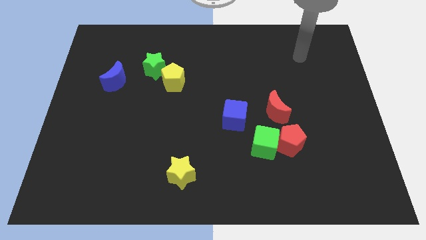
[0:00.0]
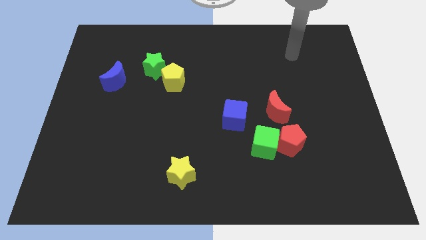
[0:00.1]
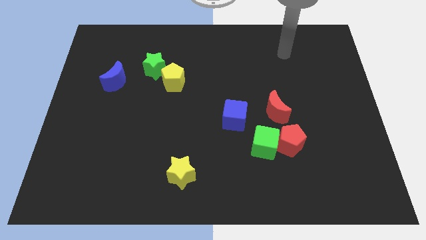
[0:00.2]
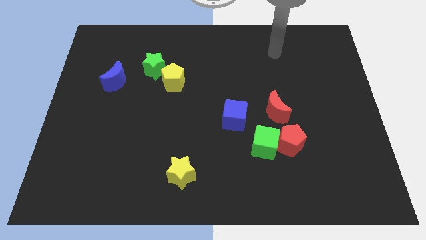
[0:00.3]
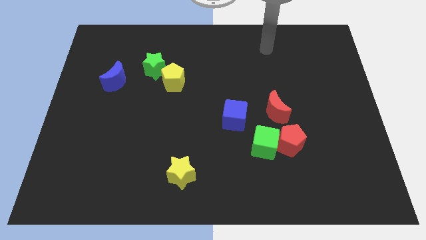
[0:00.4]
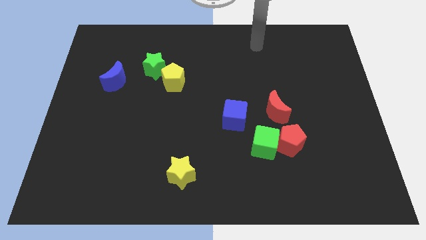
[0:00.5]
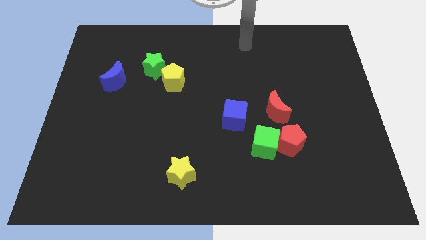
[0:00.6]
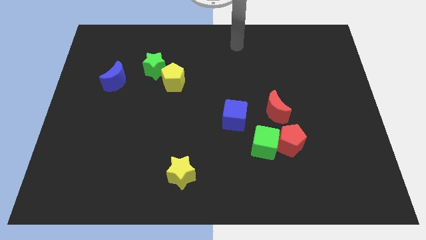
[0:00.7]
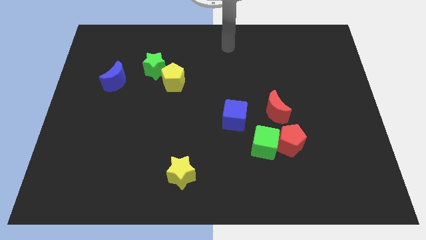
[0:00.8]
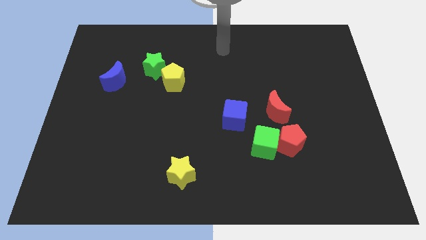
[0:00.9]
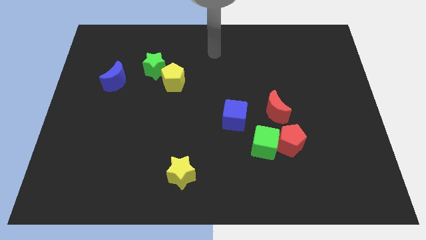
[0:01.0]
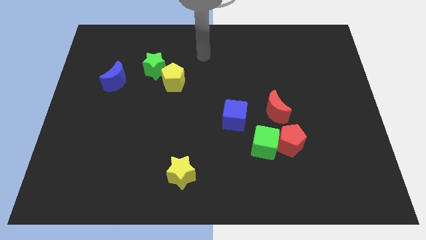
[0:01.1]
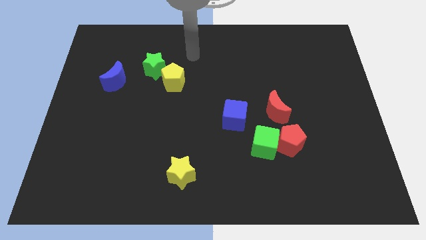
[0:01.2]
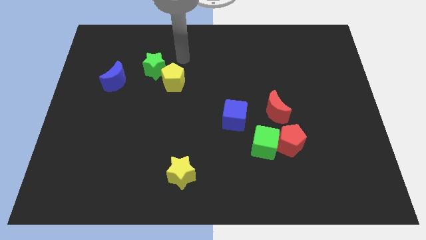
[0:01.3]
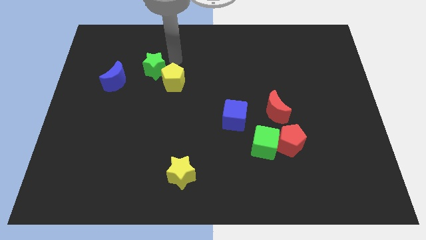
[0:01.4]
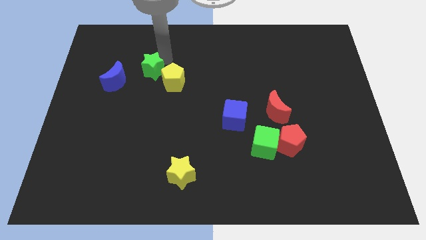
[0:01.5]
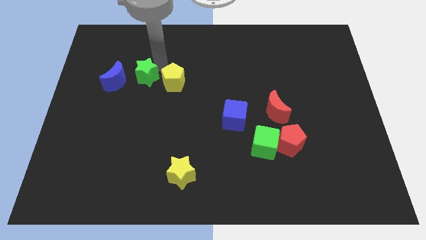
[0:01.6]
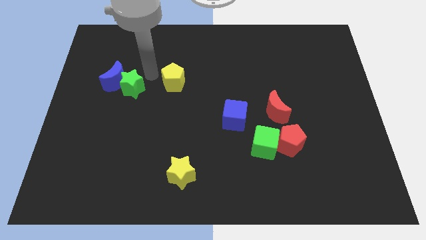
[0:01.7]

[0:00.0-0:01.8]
move the yellow pentagon away from the green star

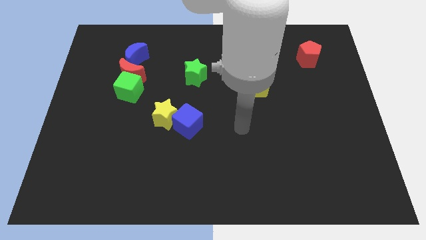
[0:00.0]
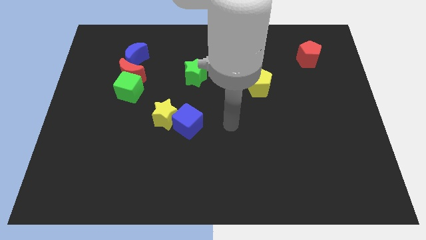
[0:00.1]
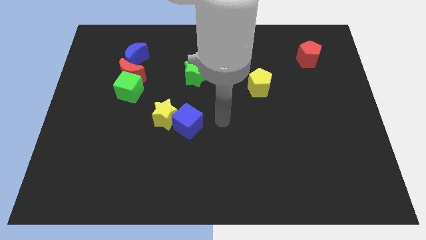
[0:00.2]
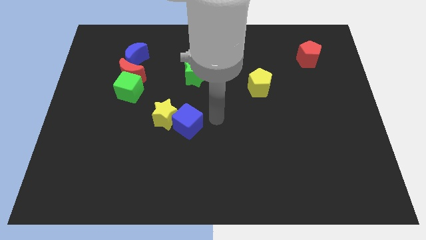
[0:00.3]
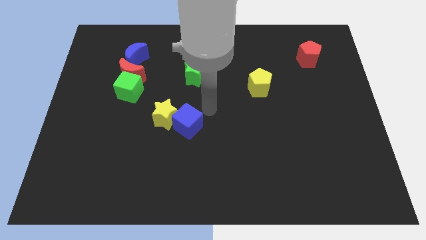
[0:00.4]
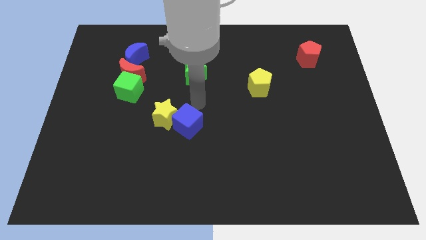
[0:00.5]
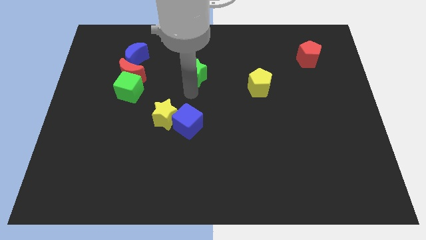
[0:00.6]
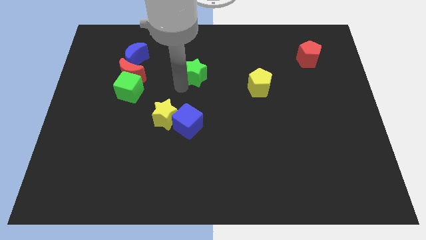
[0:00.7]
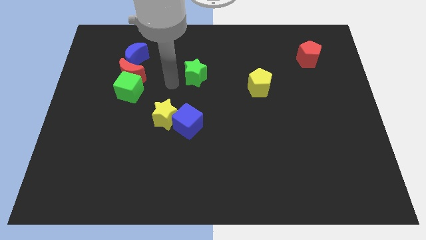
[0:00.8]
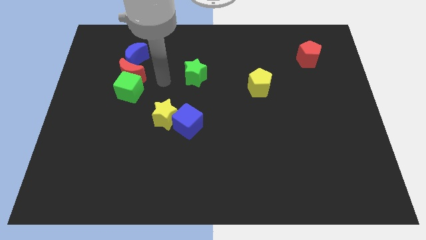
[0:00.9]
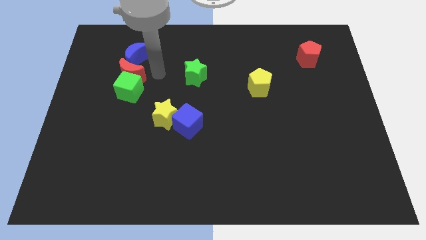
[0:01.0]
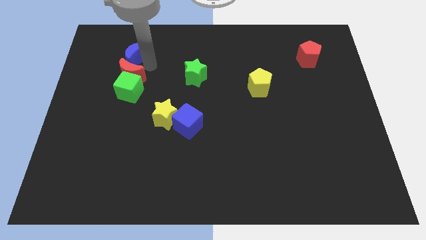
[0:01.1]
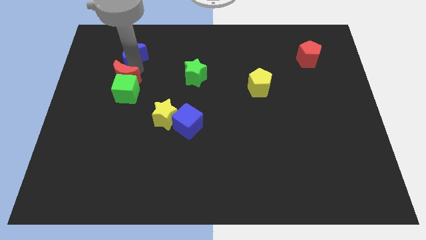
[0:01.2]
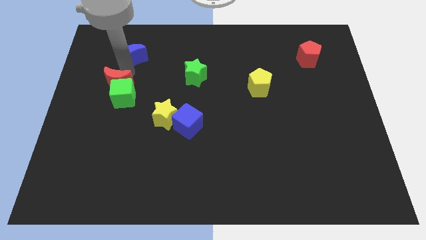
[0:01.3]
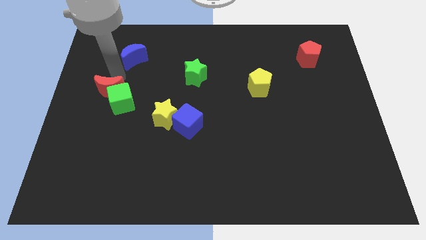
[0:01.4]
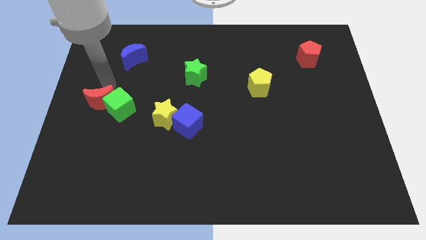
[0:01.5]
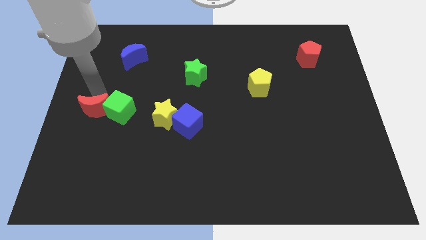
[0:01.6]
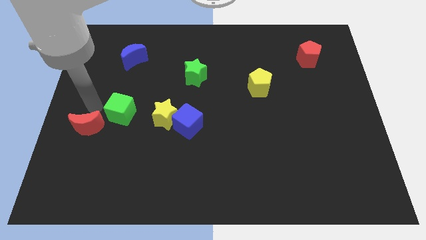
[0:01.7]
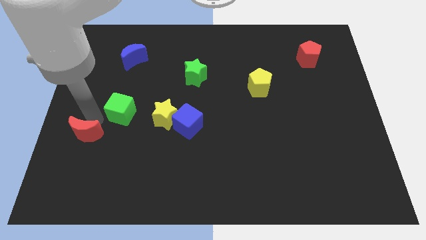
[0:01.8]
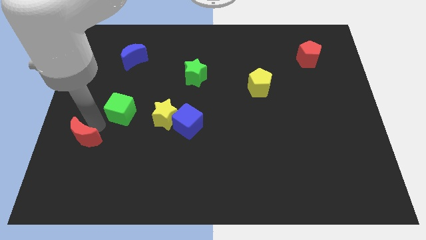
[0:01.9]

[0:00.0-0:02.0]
move the green cube away from the red moon

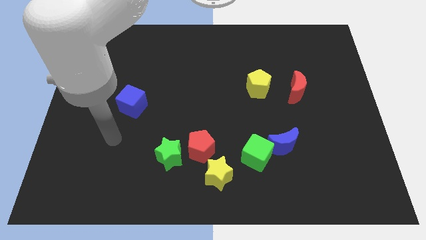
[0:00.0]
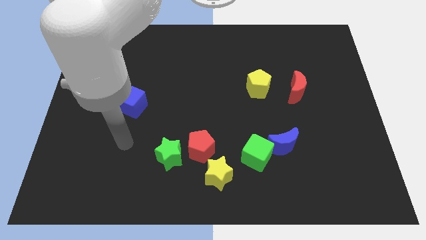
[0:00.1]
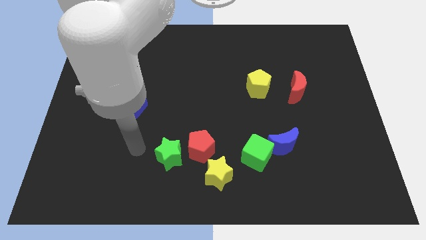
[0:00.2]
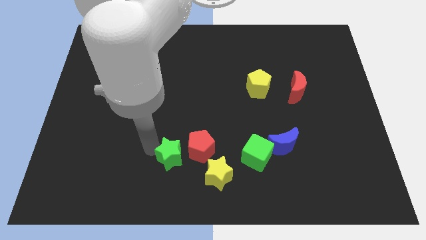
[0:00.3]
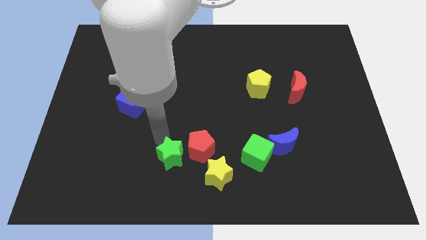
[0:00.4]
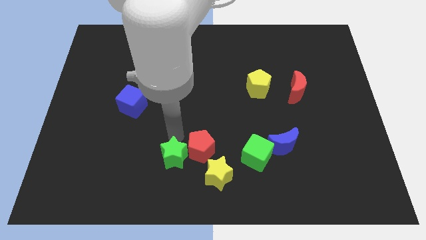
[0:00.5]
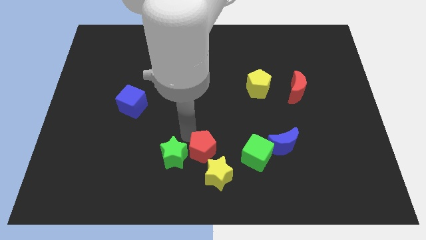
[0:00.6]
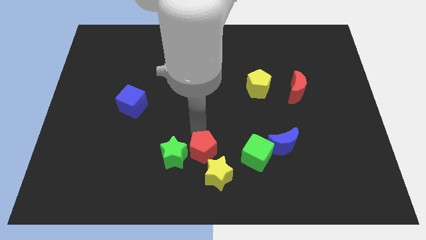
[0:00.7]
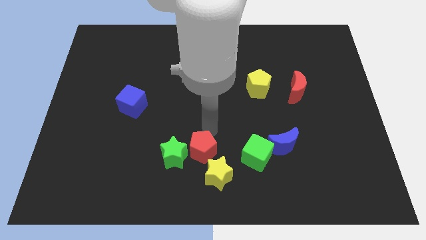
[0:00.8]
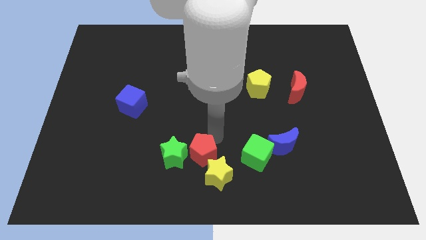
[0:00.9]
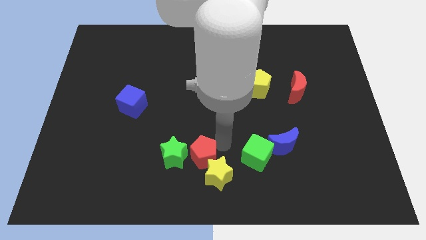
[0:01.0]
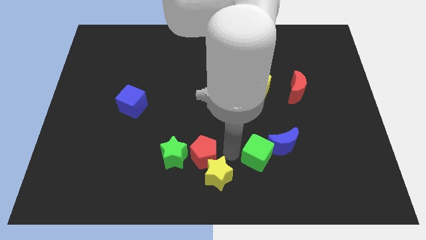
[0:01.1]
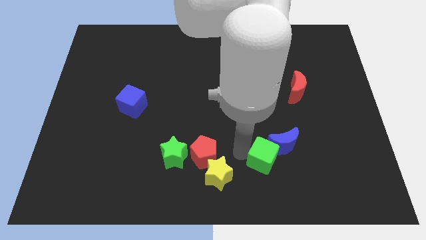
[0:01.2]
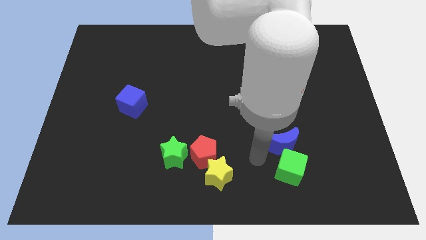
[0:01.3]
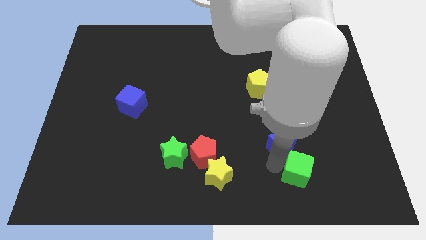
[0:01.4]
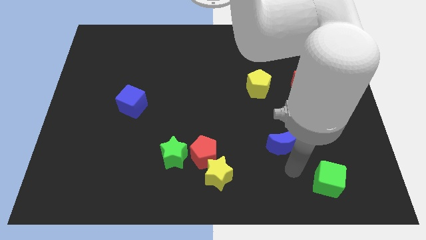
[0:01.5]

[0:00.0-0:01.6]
move the blue moon away from the green cube

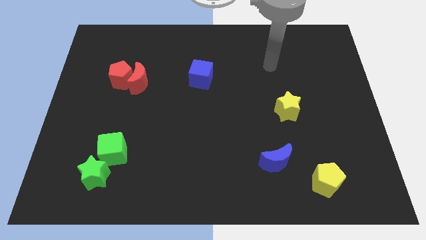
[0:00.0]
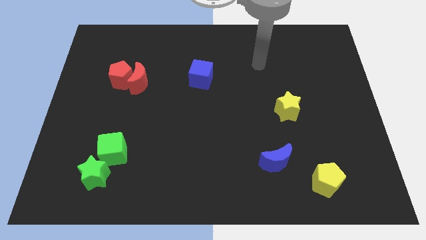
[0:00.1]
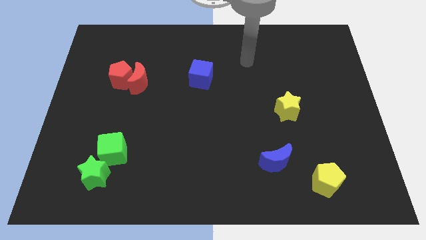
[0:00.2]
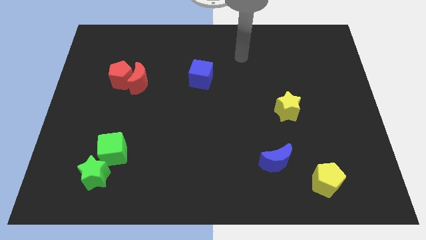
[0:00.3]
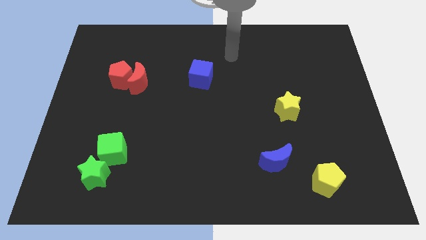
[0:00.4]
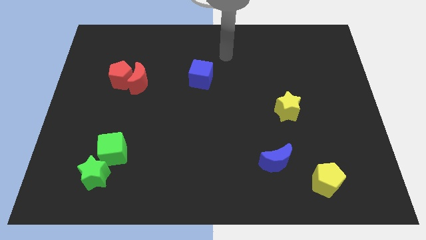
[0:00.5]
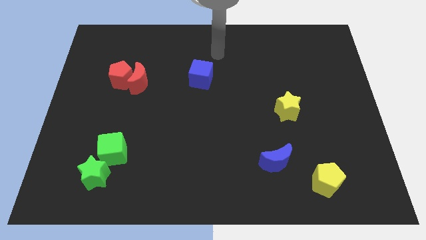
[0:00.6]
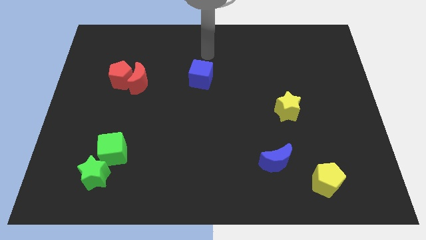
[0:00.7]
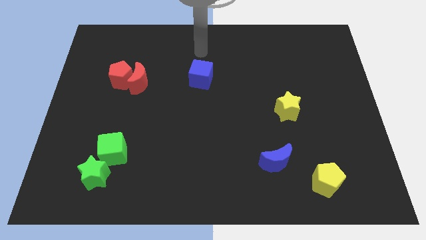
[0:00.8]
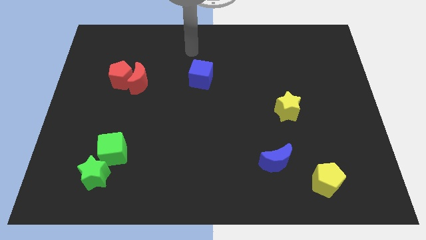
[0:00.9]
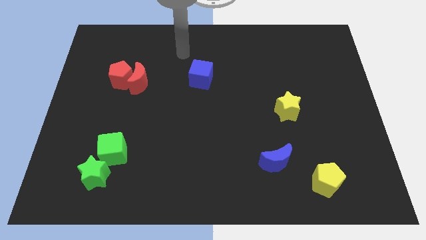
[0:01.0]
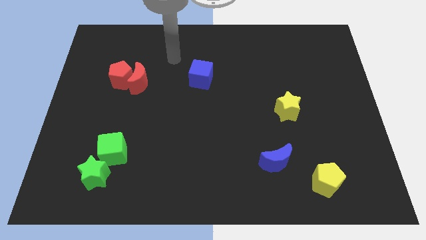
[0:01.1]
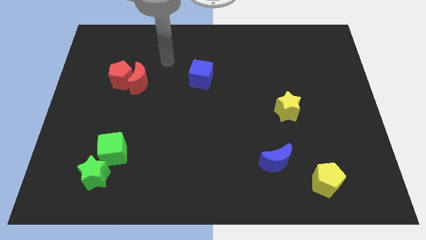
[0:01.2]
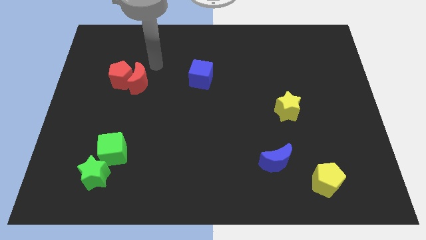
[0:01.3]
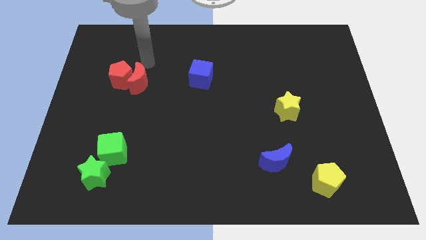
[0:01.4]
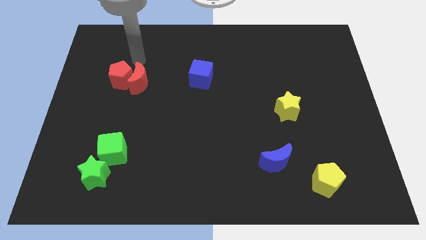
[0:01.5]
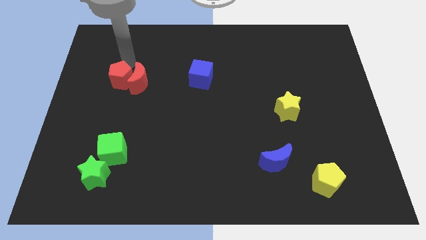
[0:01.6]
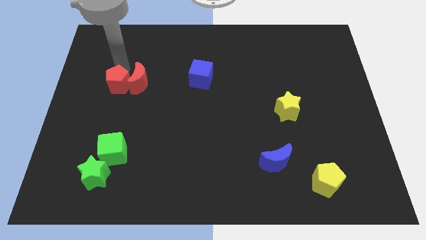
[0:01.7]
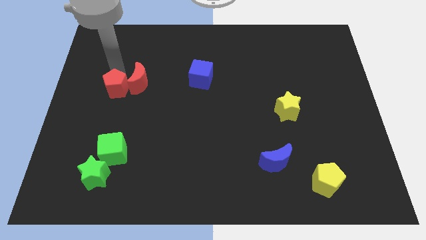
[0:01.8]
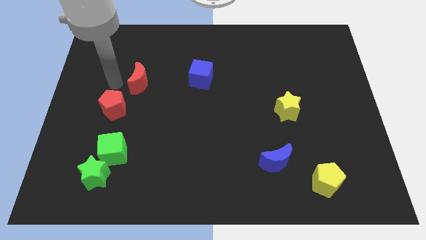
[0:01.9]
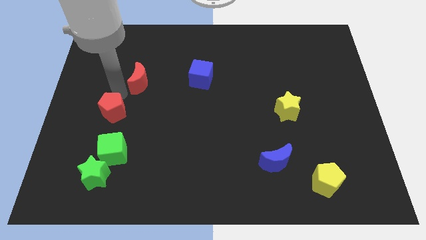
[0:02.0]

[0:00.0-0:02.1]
separate the red moon from the red pentagon

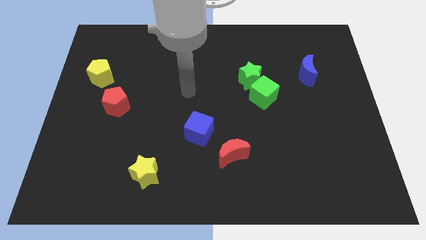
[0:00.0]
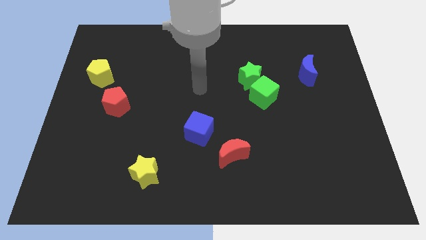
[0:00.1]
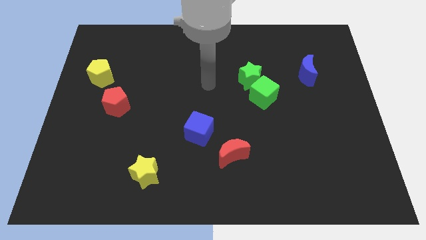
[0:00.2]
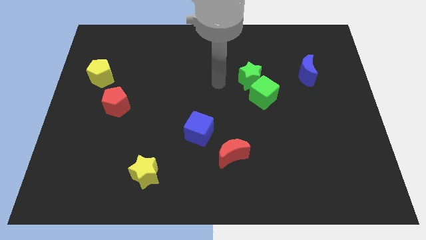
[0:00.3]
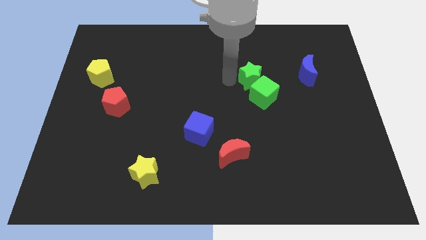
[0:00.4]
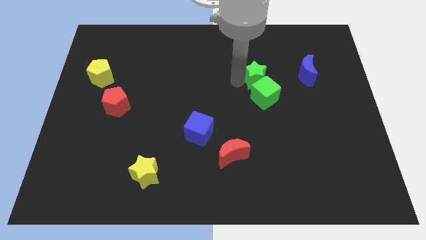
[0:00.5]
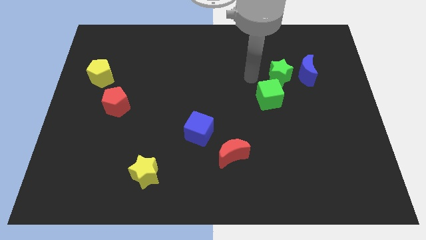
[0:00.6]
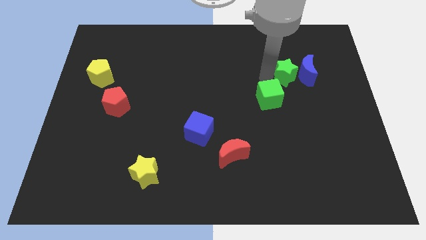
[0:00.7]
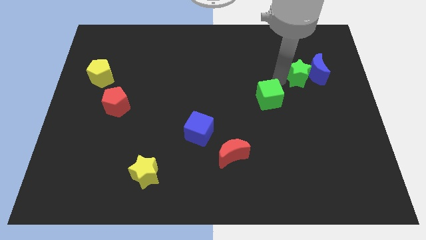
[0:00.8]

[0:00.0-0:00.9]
pull the green cube apart from the green star

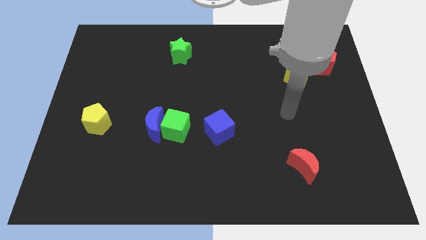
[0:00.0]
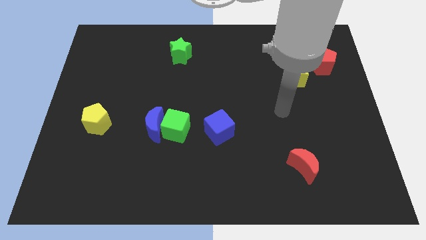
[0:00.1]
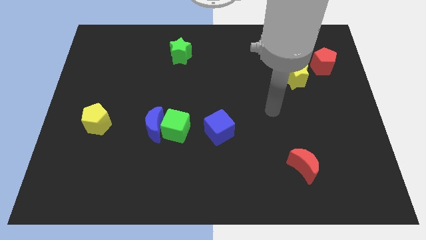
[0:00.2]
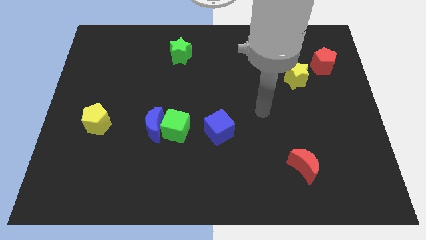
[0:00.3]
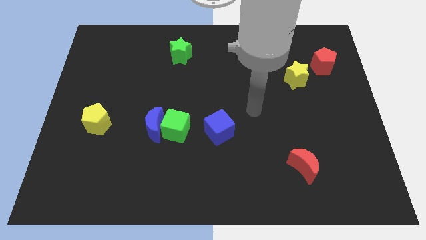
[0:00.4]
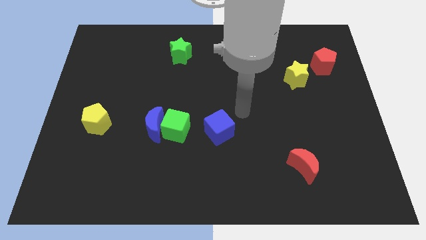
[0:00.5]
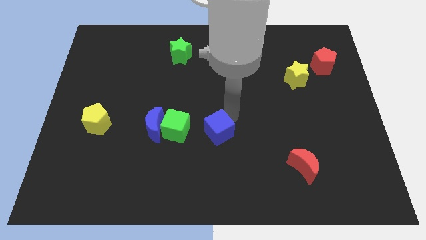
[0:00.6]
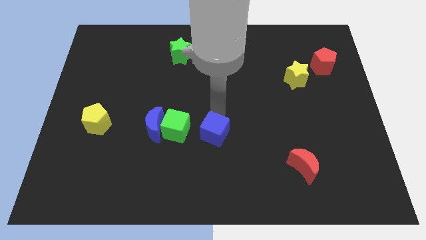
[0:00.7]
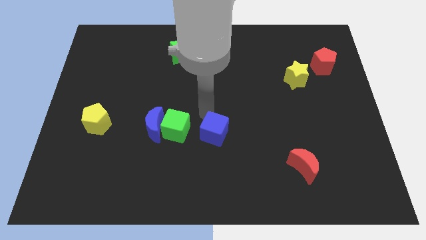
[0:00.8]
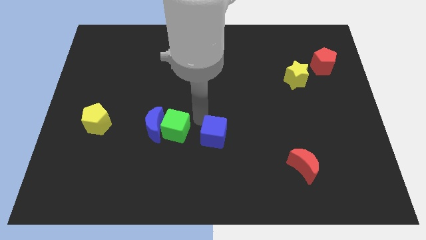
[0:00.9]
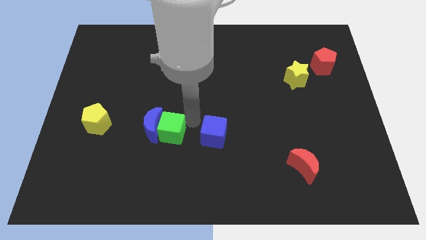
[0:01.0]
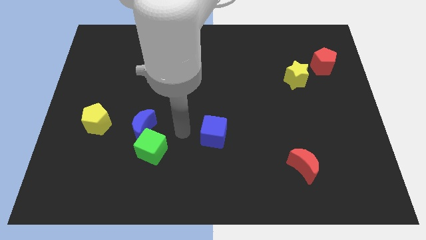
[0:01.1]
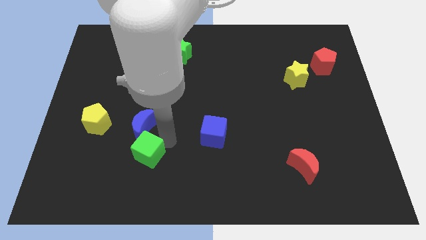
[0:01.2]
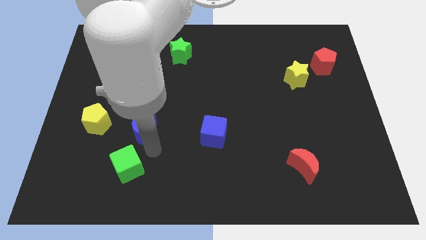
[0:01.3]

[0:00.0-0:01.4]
pull the blue moon apart from the green cube
